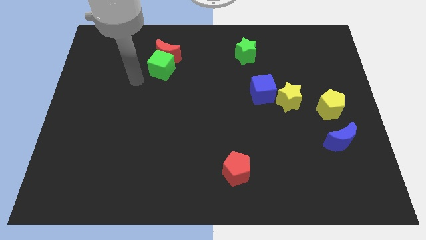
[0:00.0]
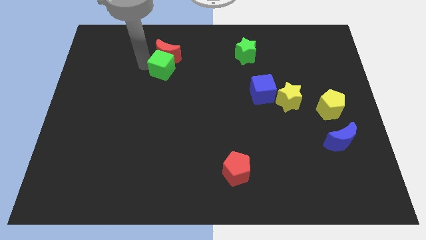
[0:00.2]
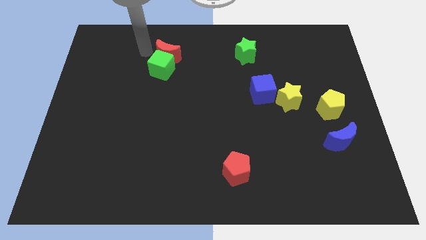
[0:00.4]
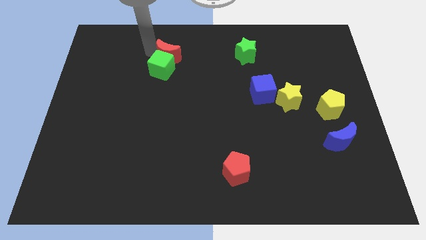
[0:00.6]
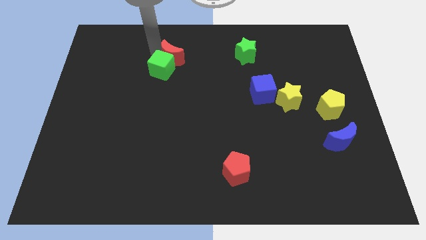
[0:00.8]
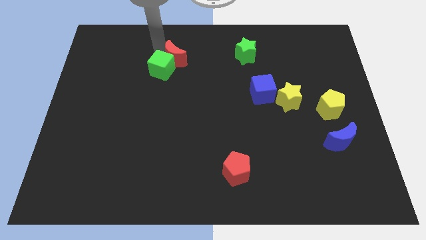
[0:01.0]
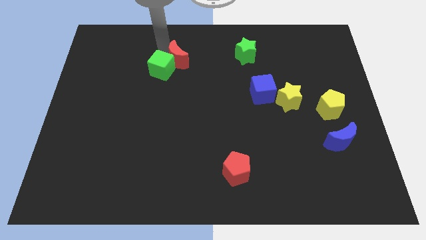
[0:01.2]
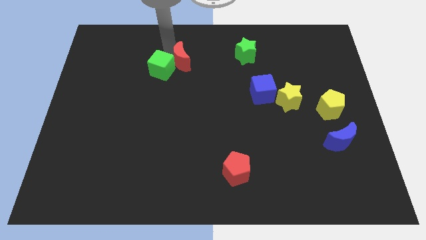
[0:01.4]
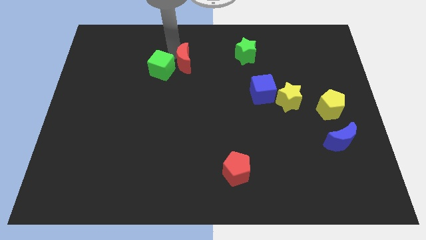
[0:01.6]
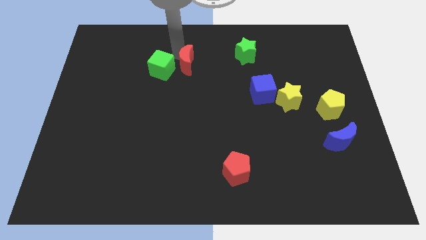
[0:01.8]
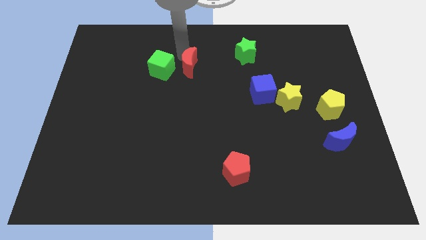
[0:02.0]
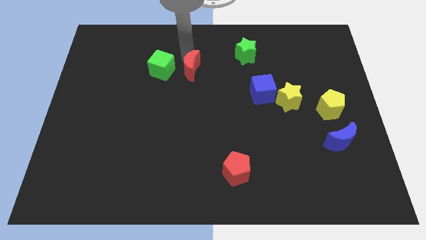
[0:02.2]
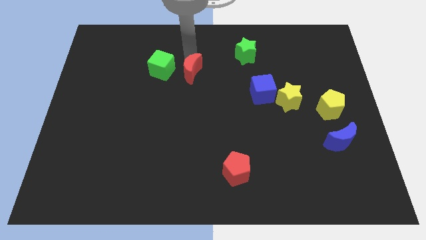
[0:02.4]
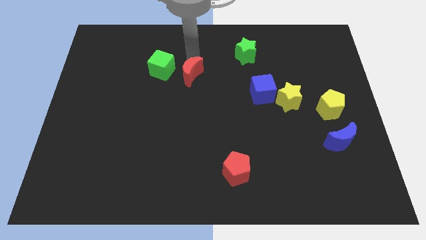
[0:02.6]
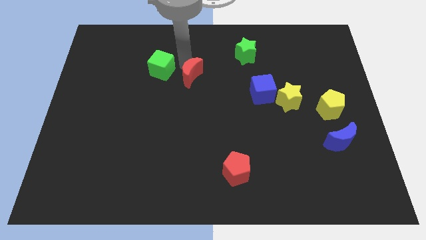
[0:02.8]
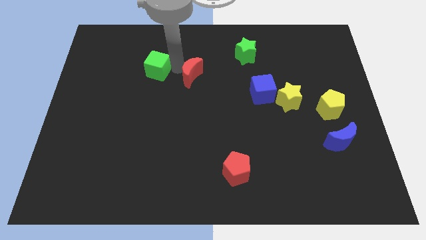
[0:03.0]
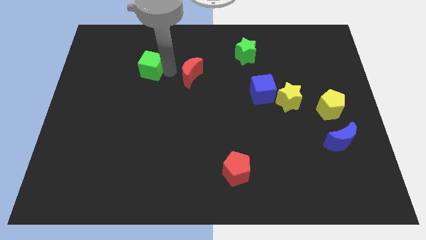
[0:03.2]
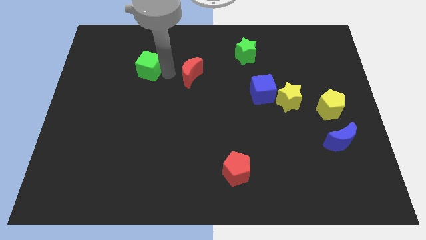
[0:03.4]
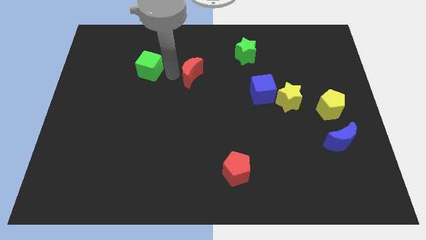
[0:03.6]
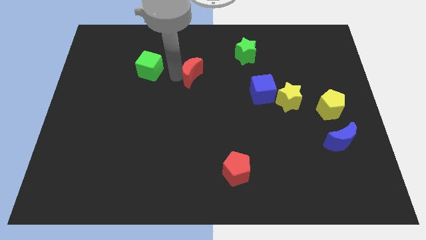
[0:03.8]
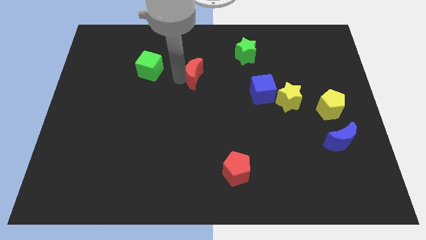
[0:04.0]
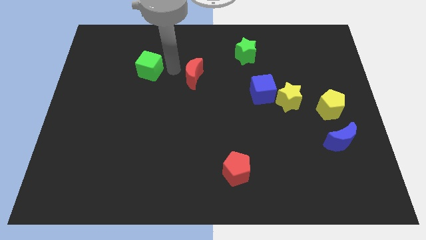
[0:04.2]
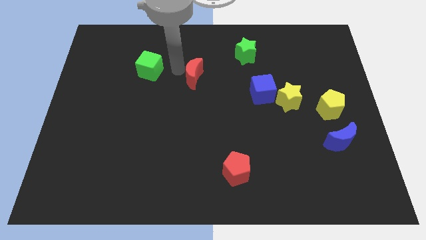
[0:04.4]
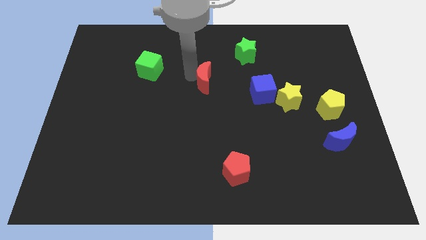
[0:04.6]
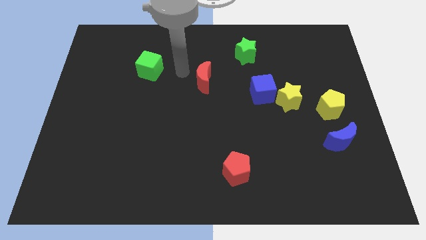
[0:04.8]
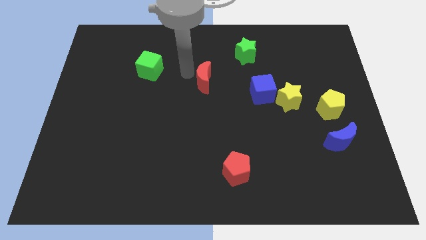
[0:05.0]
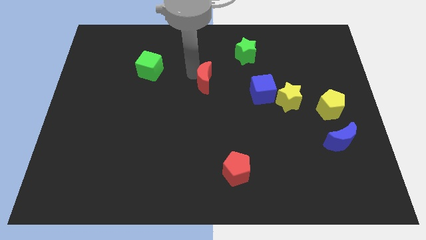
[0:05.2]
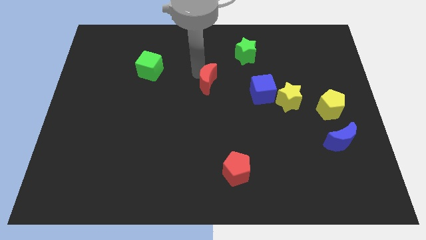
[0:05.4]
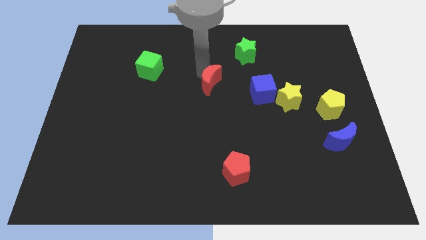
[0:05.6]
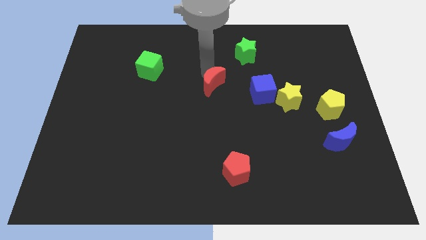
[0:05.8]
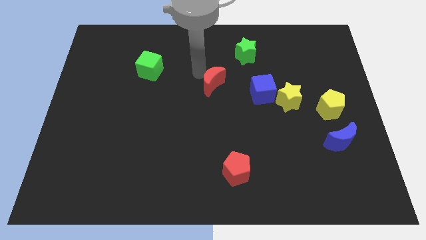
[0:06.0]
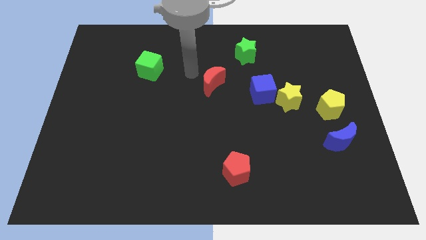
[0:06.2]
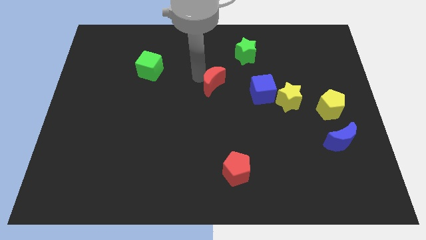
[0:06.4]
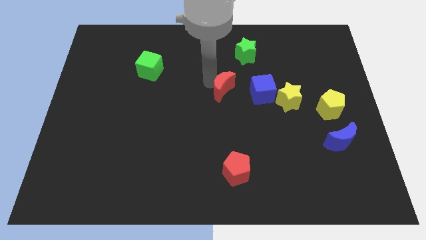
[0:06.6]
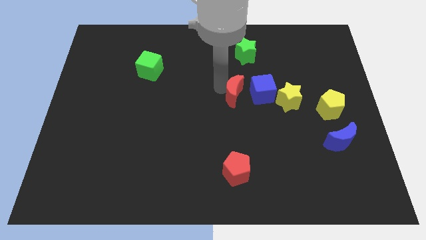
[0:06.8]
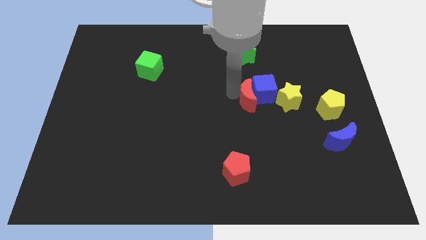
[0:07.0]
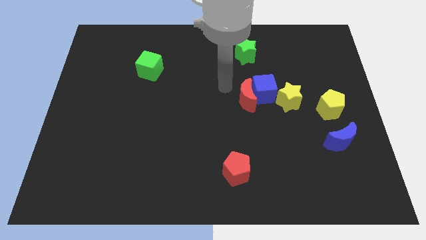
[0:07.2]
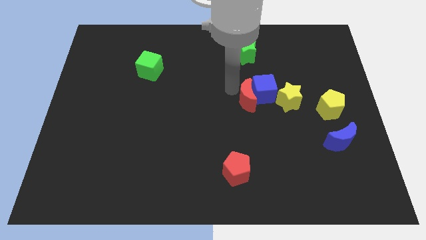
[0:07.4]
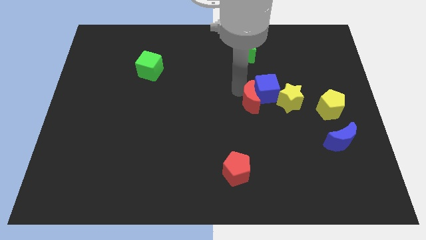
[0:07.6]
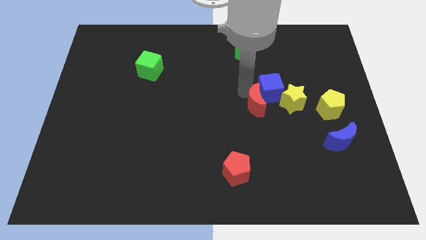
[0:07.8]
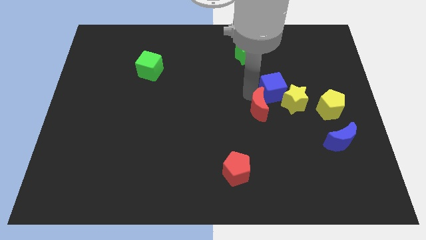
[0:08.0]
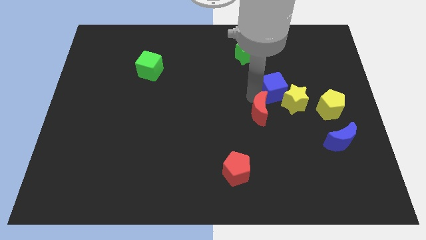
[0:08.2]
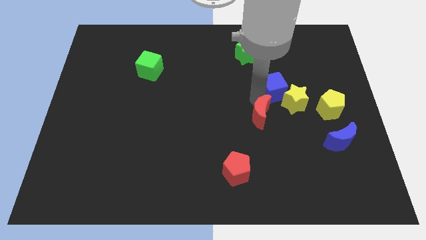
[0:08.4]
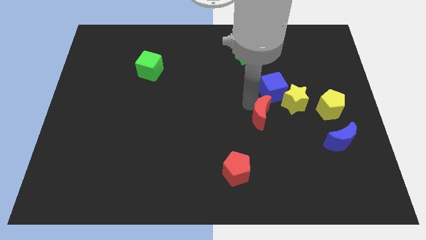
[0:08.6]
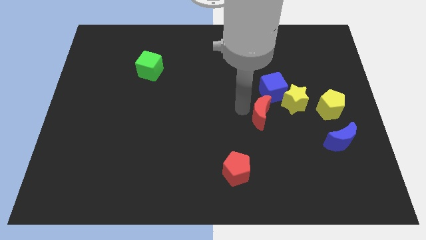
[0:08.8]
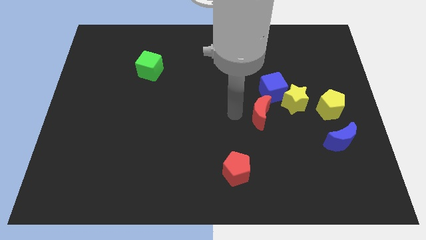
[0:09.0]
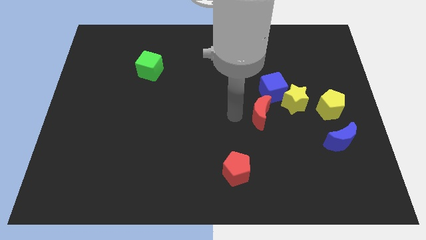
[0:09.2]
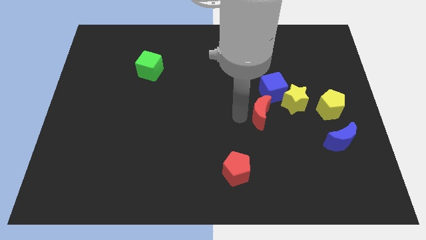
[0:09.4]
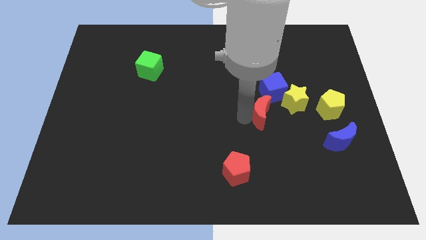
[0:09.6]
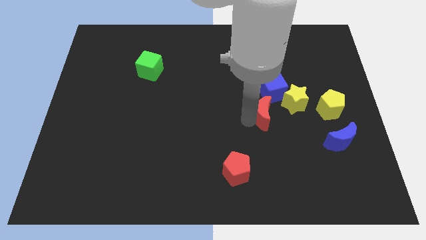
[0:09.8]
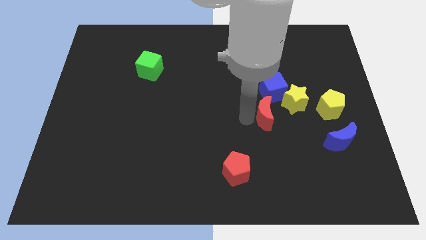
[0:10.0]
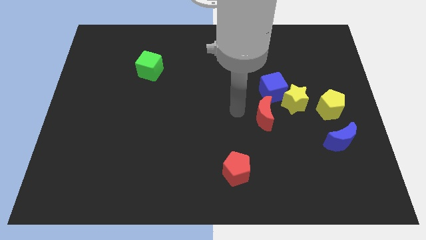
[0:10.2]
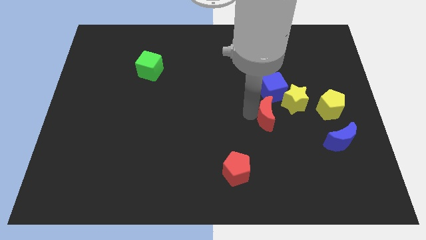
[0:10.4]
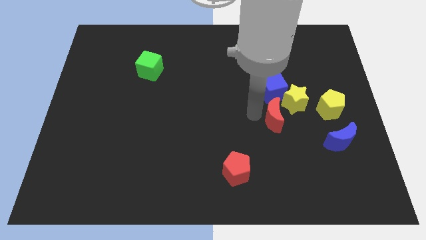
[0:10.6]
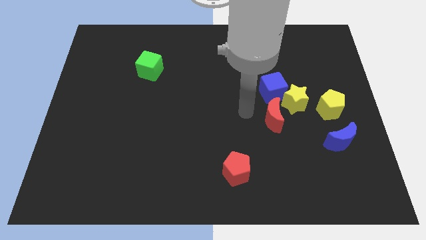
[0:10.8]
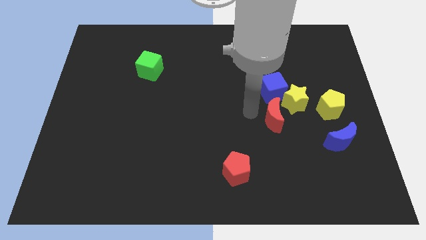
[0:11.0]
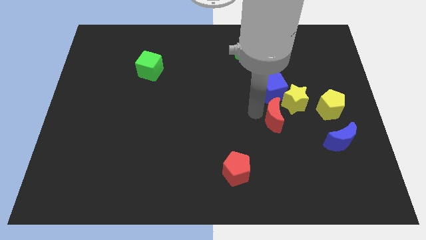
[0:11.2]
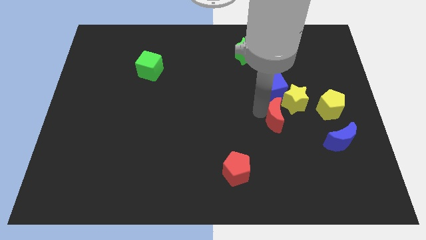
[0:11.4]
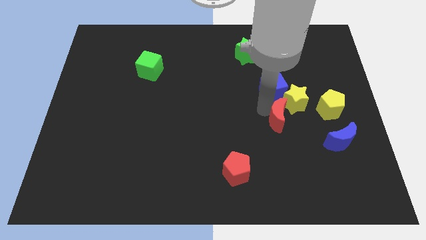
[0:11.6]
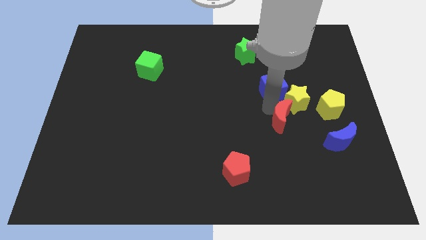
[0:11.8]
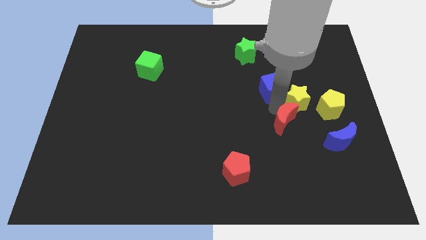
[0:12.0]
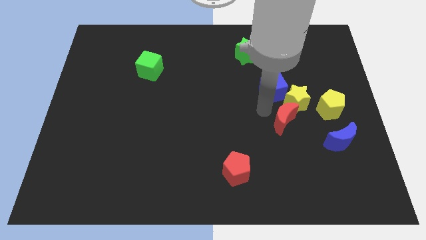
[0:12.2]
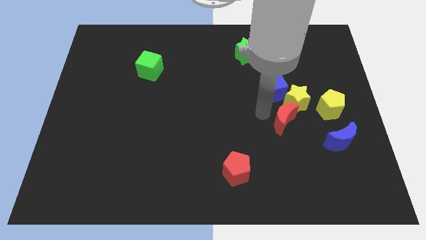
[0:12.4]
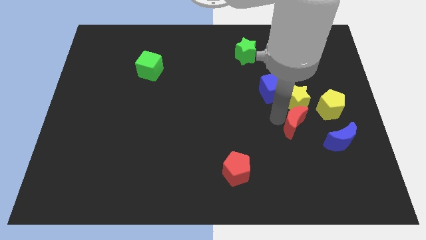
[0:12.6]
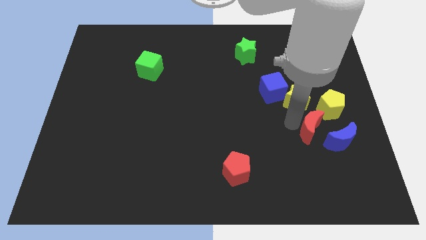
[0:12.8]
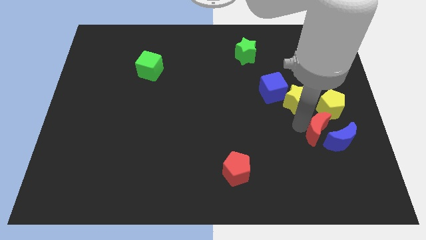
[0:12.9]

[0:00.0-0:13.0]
move the red moon next to the blue moon

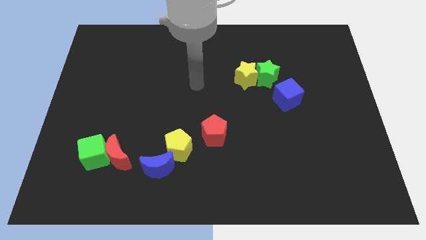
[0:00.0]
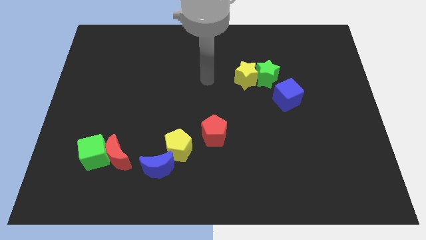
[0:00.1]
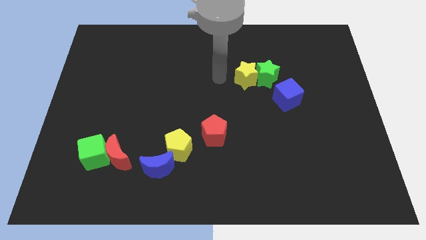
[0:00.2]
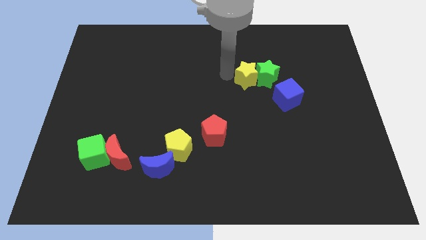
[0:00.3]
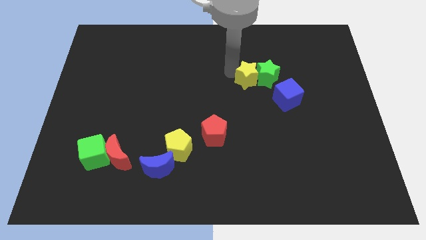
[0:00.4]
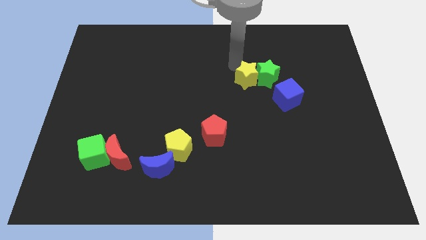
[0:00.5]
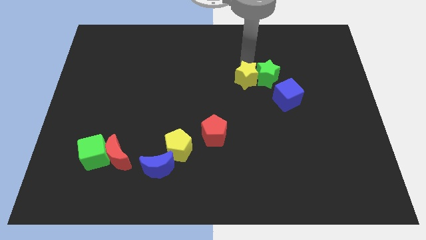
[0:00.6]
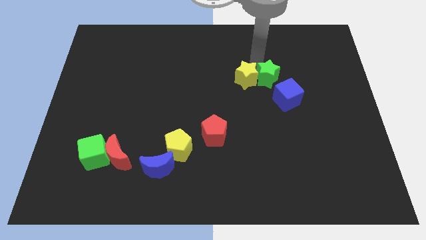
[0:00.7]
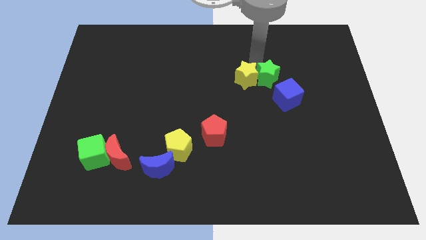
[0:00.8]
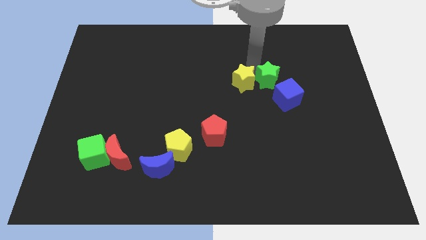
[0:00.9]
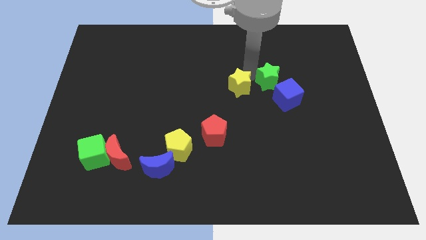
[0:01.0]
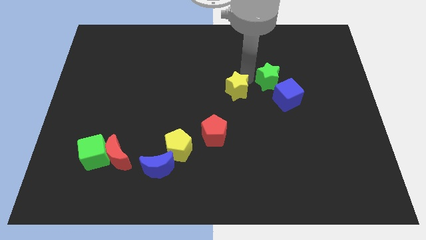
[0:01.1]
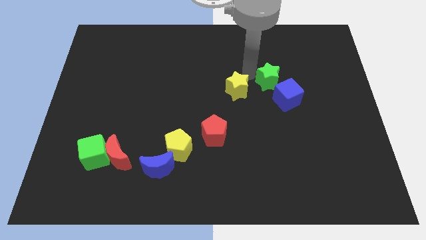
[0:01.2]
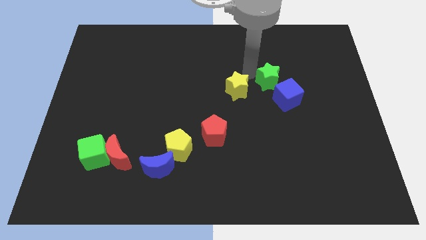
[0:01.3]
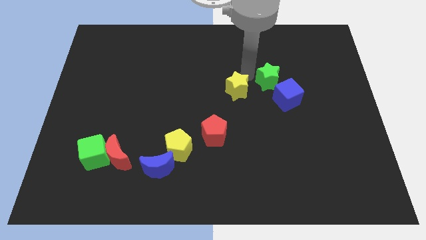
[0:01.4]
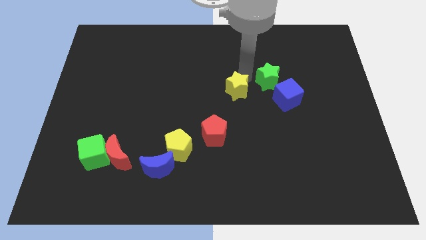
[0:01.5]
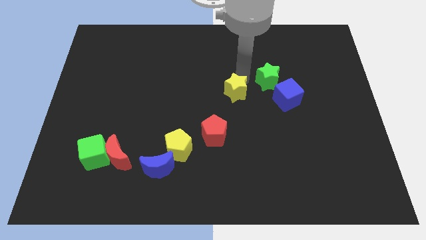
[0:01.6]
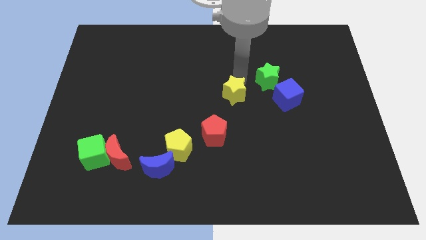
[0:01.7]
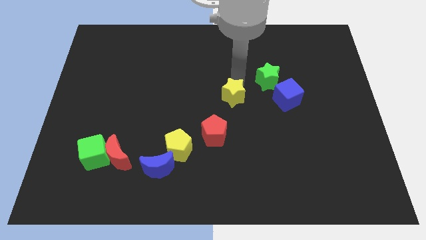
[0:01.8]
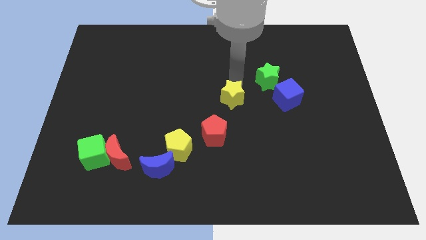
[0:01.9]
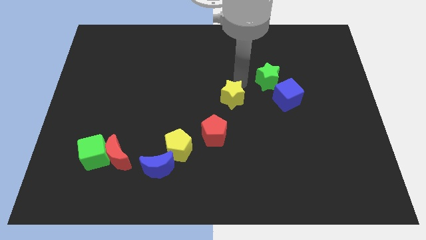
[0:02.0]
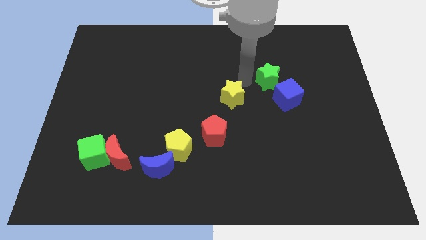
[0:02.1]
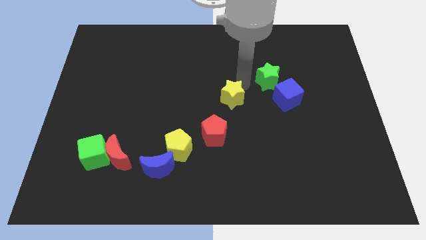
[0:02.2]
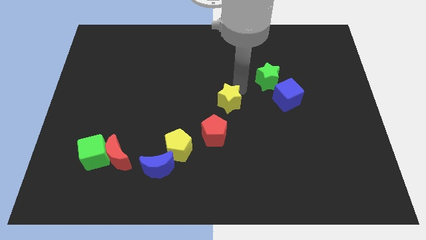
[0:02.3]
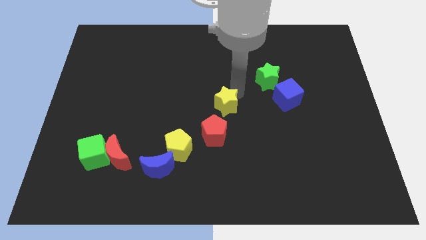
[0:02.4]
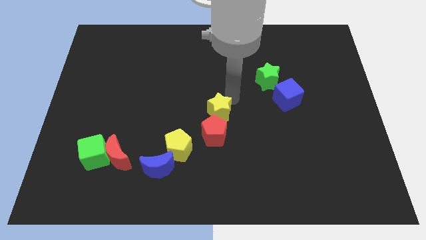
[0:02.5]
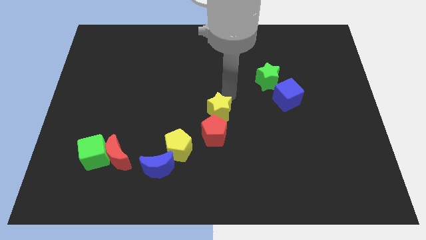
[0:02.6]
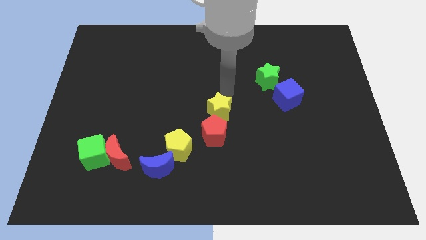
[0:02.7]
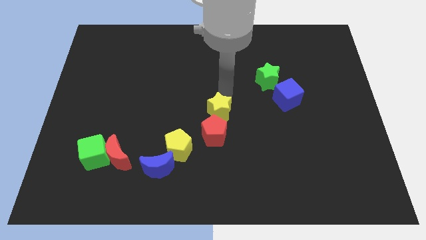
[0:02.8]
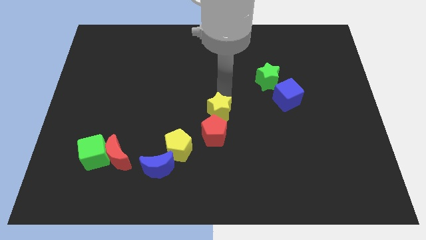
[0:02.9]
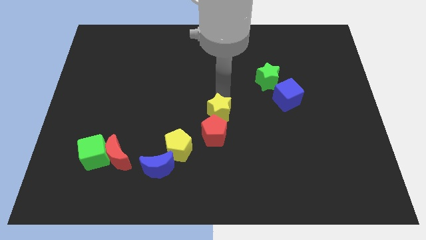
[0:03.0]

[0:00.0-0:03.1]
move the yellow star towards the red pentagon
